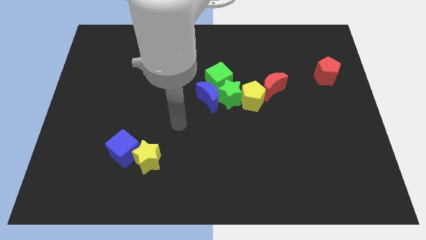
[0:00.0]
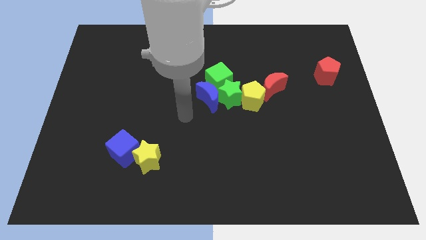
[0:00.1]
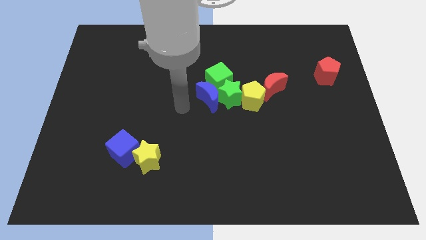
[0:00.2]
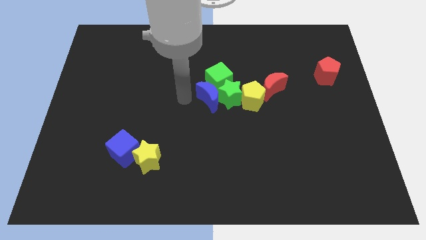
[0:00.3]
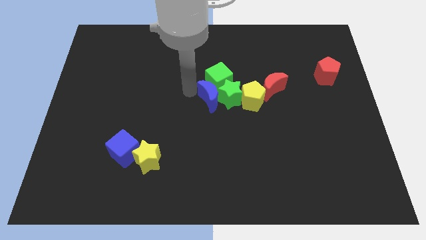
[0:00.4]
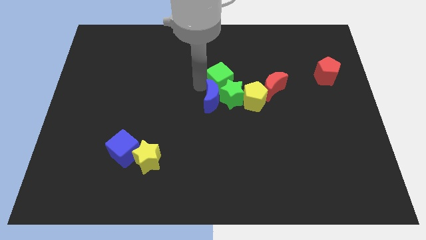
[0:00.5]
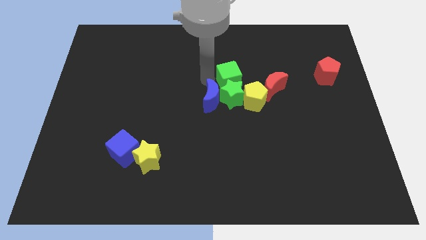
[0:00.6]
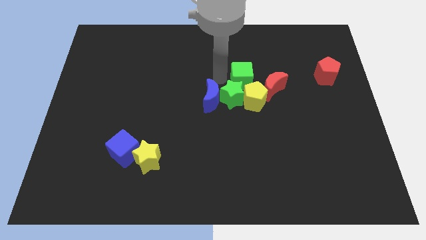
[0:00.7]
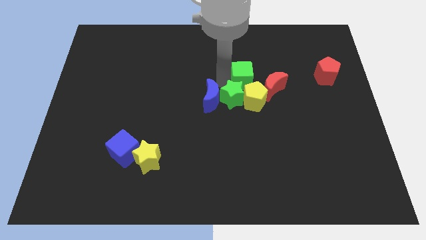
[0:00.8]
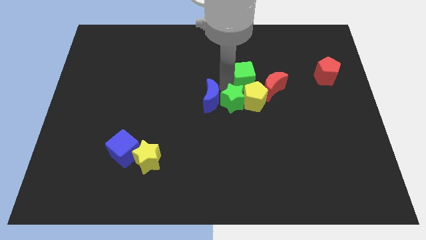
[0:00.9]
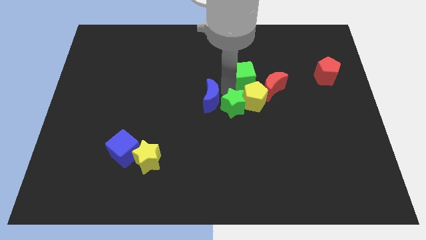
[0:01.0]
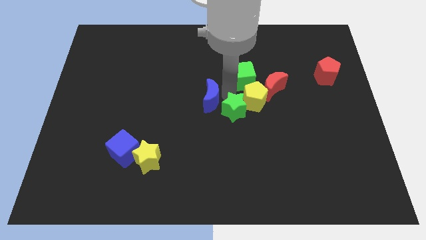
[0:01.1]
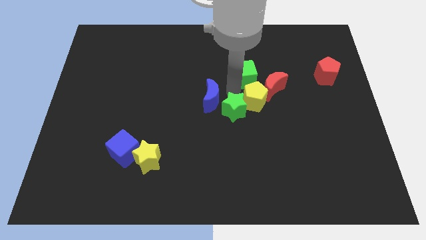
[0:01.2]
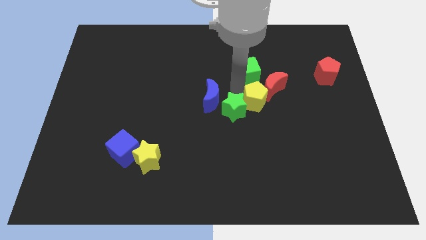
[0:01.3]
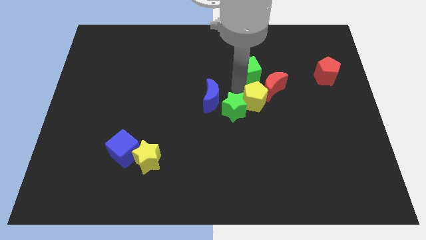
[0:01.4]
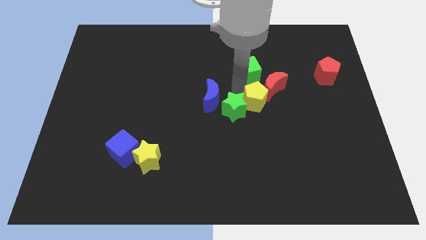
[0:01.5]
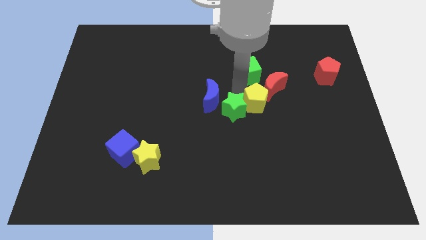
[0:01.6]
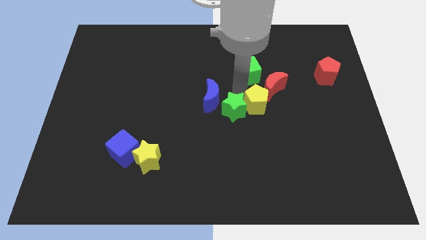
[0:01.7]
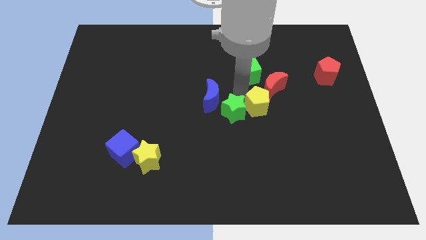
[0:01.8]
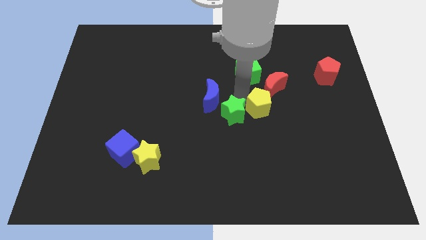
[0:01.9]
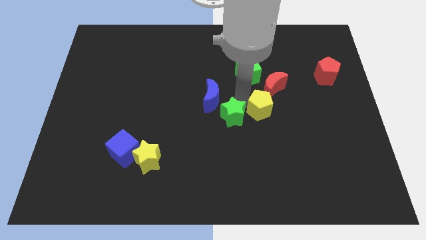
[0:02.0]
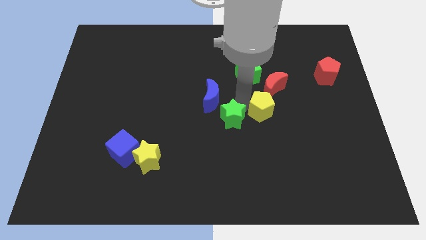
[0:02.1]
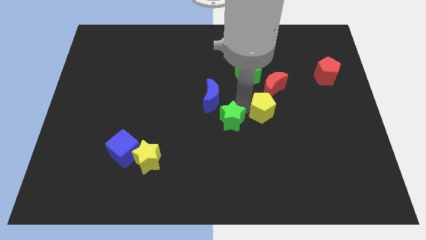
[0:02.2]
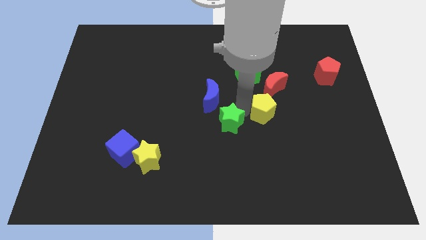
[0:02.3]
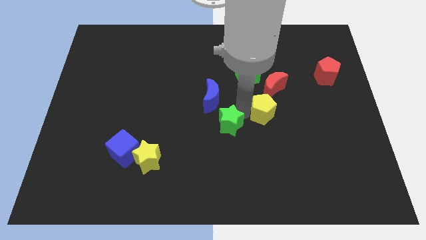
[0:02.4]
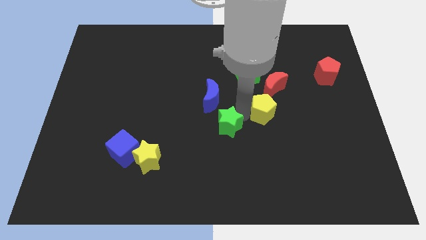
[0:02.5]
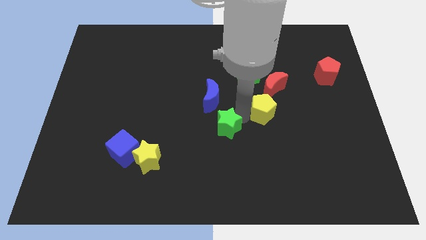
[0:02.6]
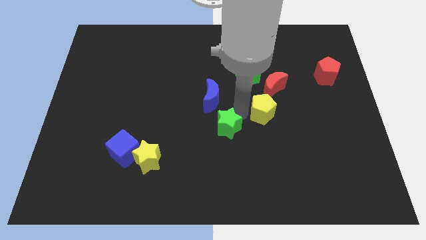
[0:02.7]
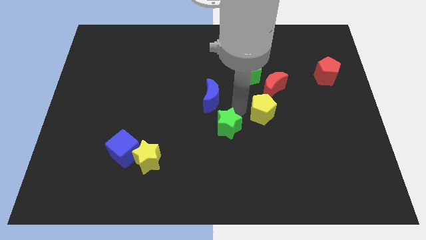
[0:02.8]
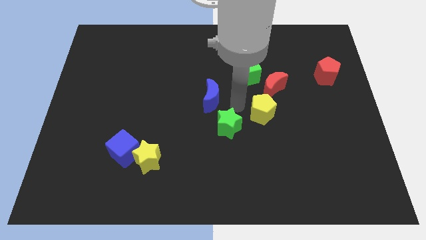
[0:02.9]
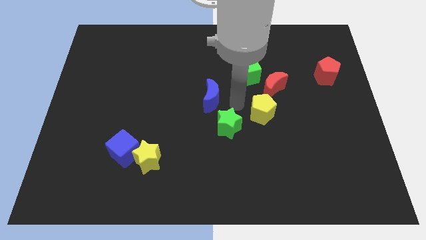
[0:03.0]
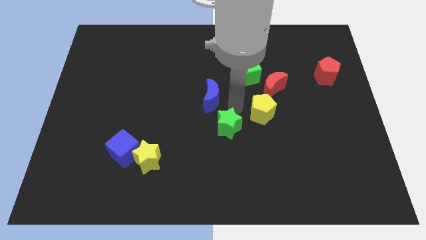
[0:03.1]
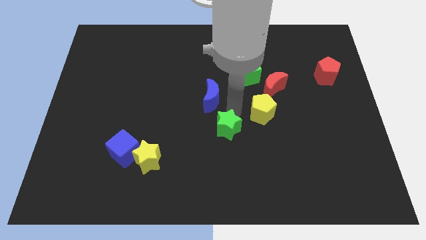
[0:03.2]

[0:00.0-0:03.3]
pull the green star apart from the blue moon, yellow pentagon, and green cube

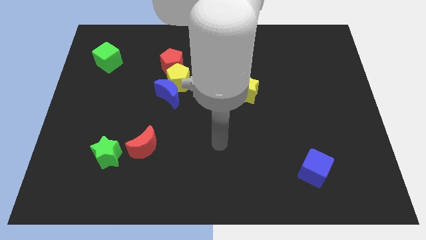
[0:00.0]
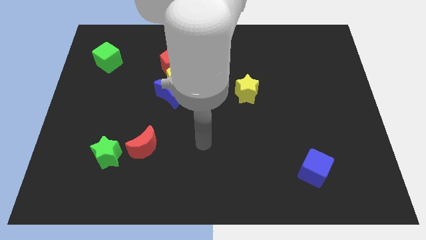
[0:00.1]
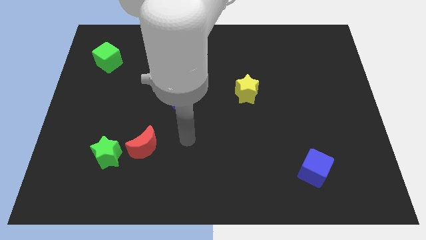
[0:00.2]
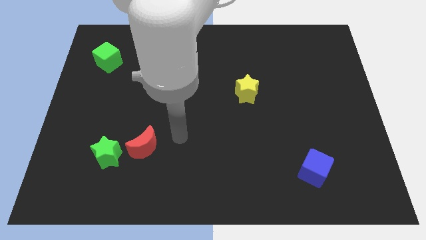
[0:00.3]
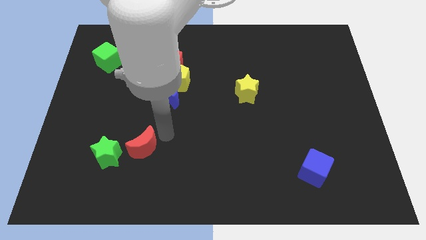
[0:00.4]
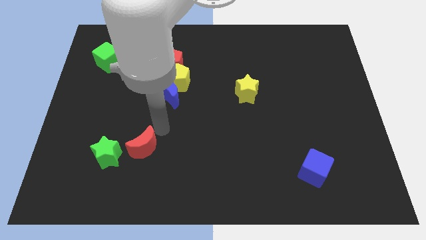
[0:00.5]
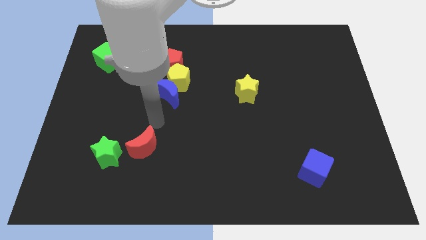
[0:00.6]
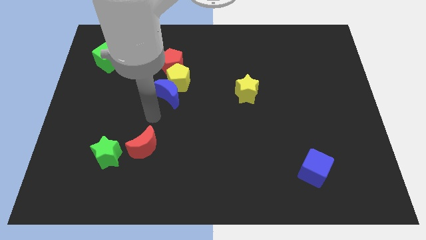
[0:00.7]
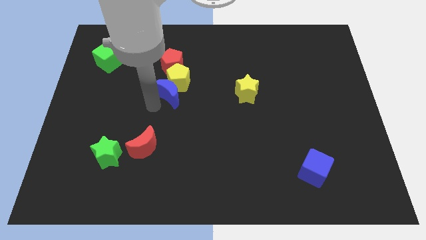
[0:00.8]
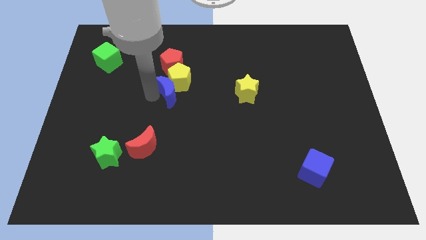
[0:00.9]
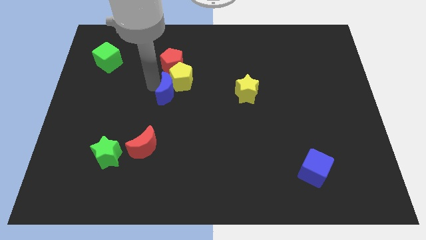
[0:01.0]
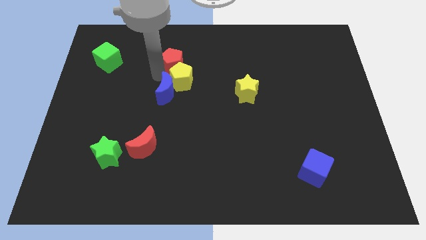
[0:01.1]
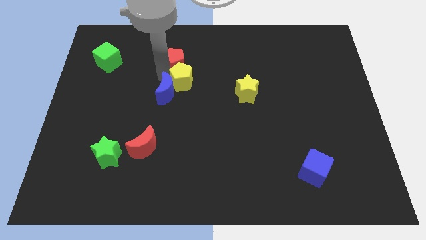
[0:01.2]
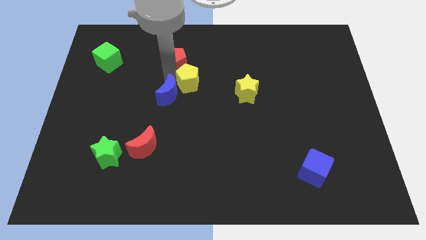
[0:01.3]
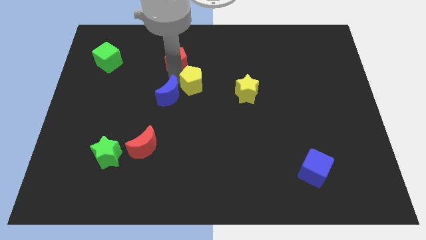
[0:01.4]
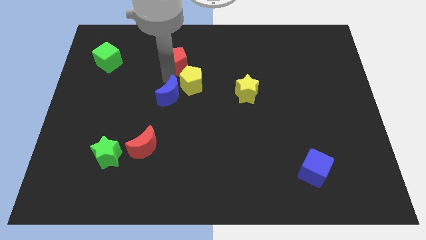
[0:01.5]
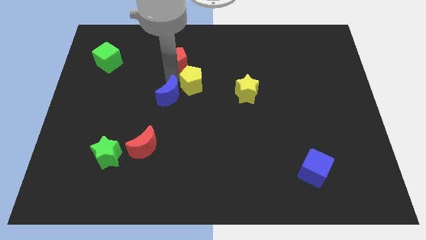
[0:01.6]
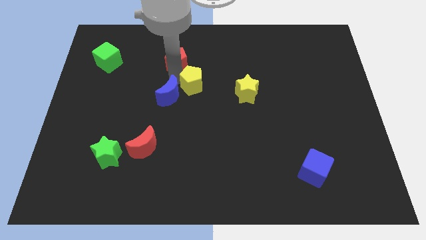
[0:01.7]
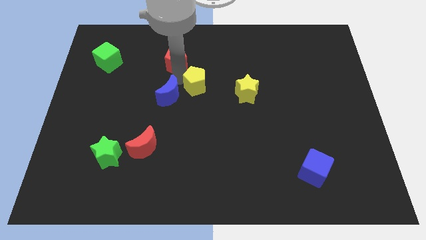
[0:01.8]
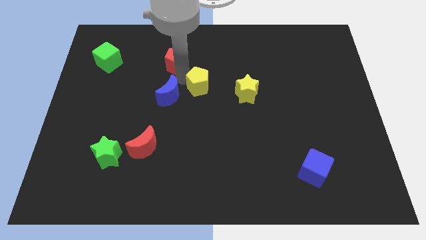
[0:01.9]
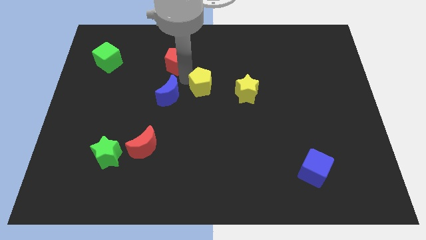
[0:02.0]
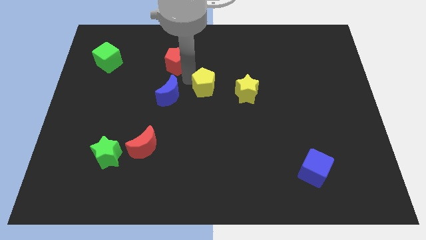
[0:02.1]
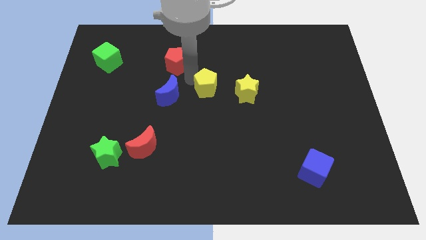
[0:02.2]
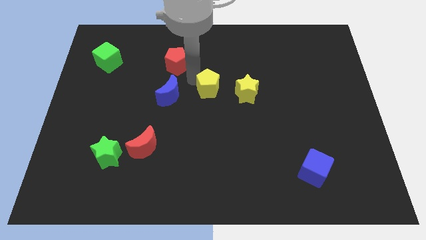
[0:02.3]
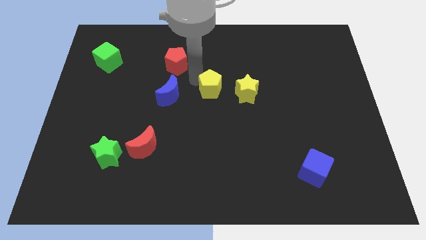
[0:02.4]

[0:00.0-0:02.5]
move the yellow pentagon away from the blue moon and red pentagon

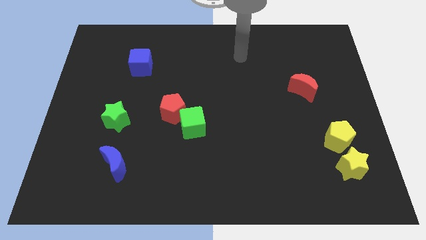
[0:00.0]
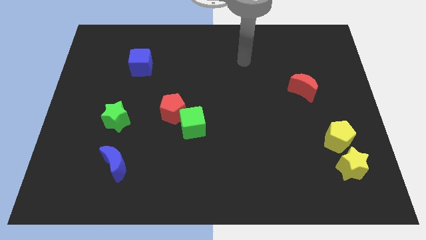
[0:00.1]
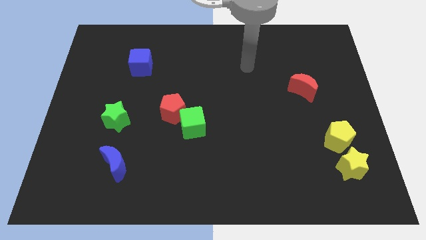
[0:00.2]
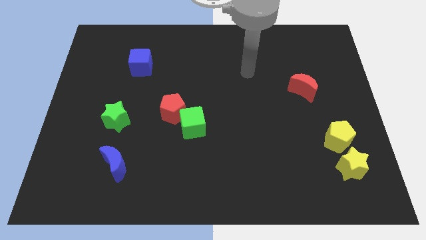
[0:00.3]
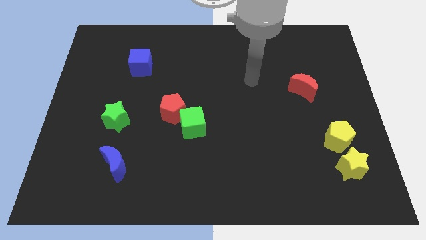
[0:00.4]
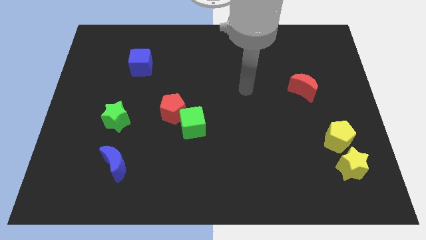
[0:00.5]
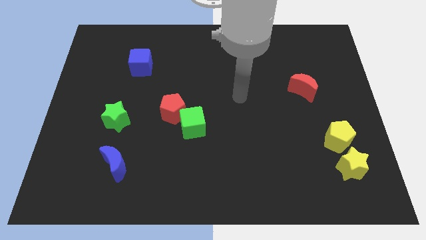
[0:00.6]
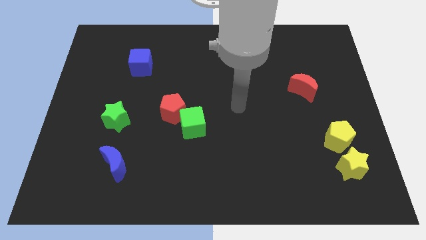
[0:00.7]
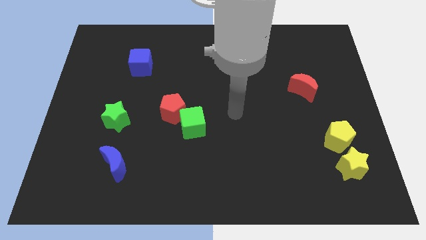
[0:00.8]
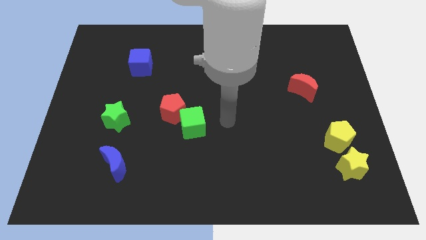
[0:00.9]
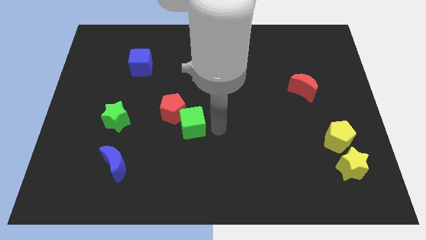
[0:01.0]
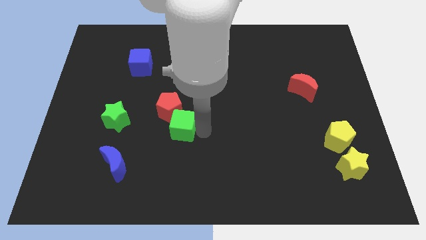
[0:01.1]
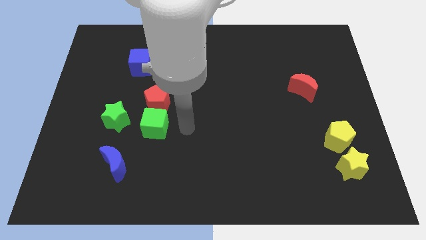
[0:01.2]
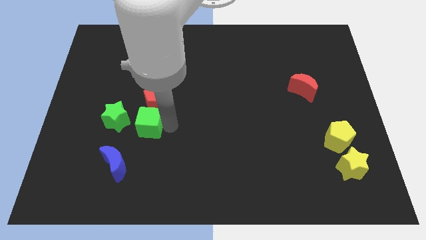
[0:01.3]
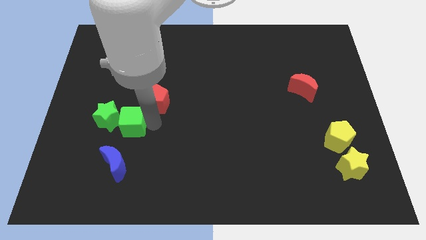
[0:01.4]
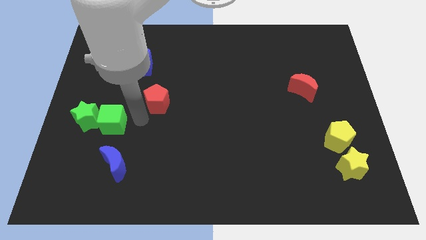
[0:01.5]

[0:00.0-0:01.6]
pull the red pentagon apart from the green cube

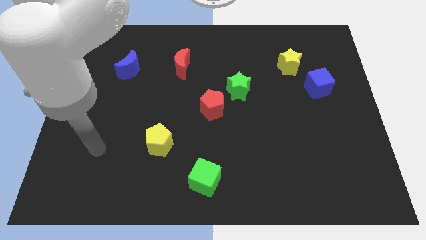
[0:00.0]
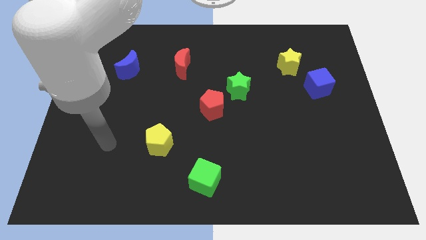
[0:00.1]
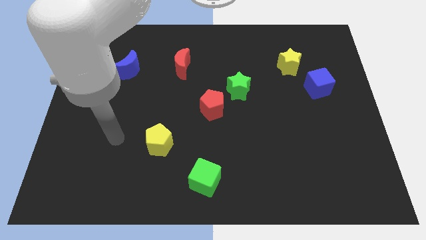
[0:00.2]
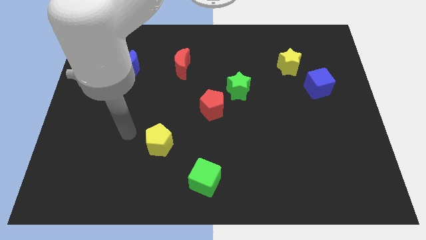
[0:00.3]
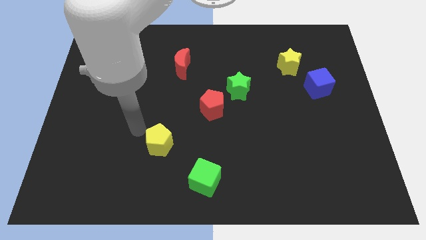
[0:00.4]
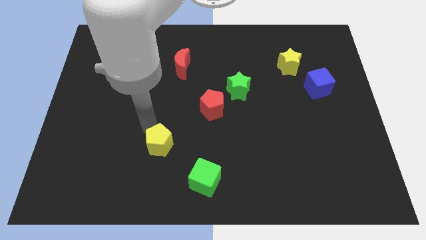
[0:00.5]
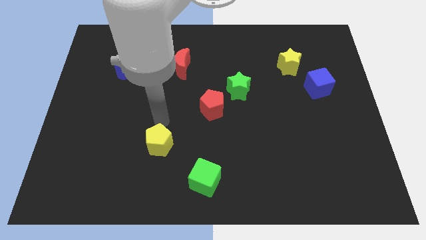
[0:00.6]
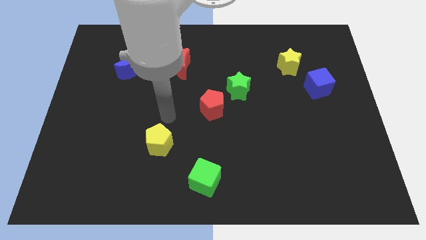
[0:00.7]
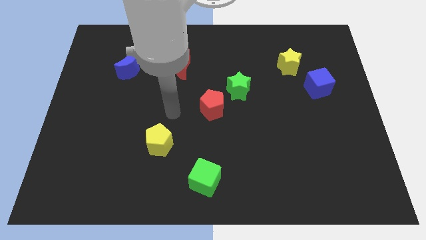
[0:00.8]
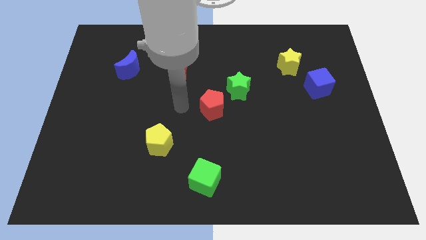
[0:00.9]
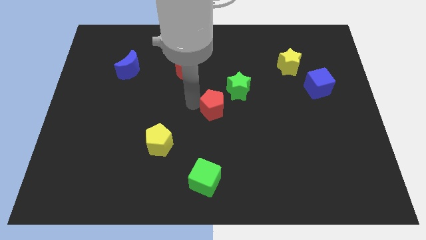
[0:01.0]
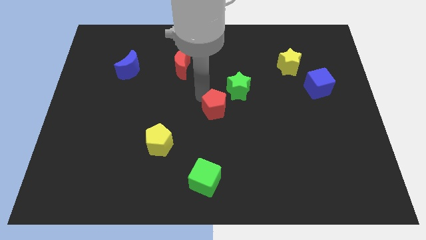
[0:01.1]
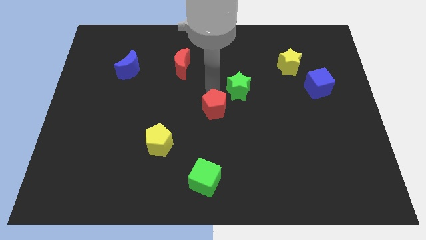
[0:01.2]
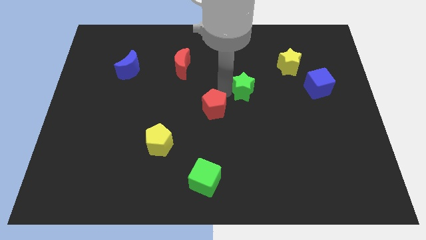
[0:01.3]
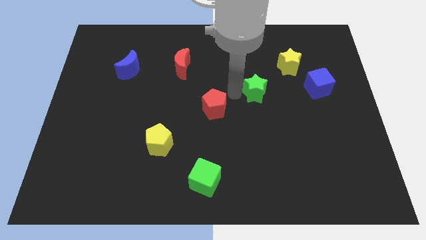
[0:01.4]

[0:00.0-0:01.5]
move the red pentagon away from the green star

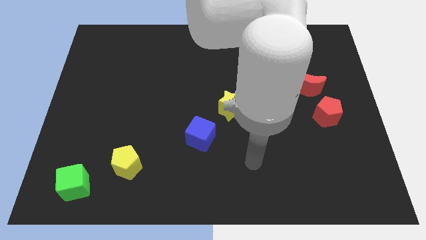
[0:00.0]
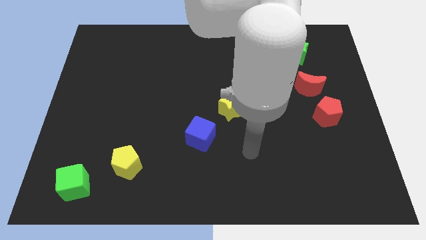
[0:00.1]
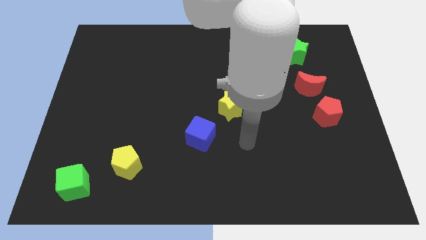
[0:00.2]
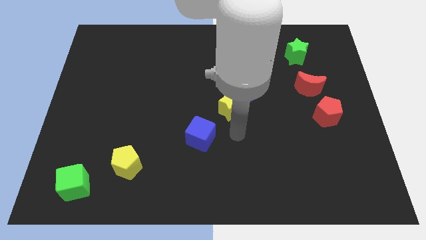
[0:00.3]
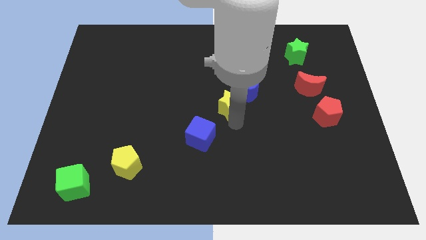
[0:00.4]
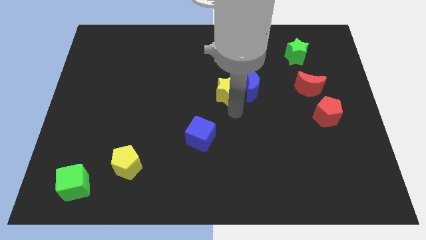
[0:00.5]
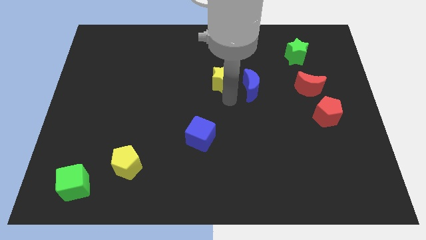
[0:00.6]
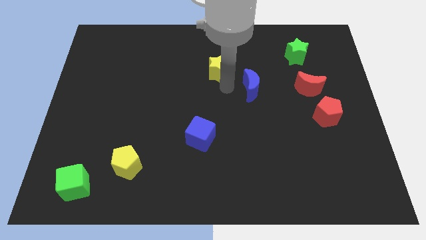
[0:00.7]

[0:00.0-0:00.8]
separate the blue moon from the yellow star
